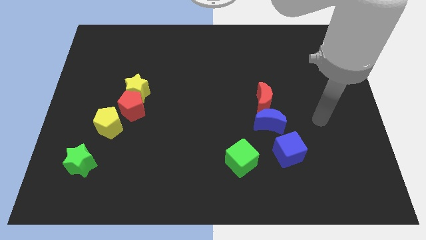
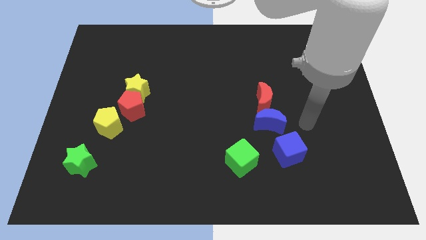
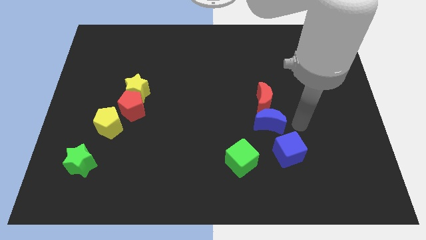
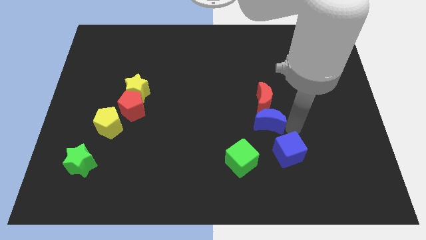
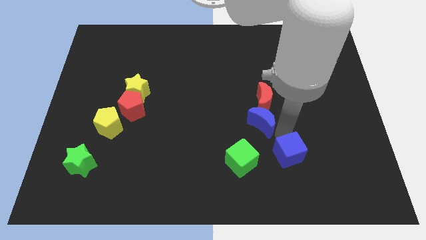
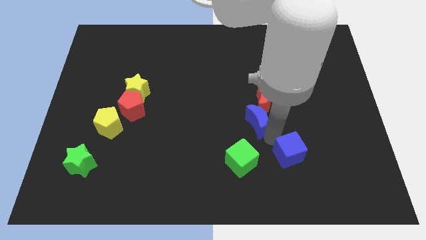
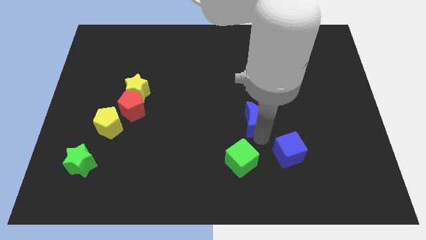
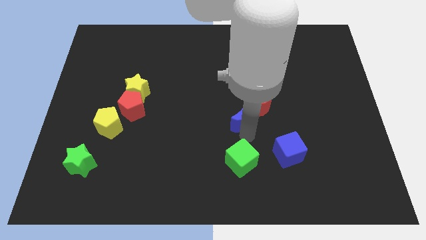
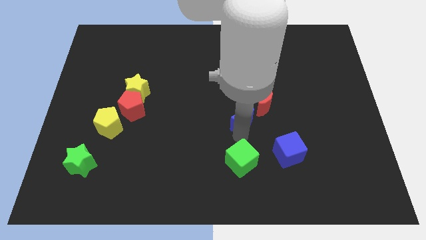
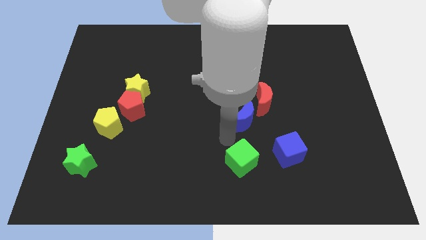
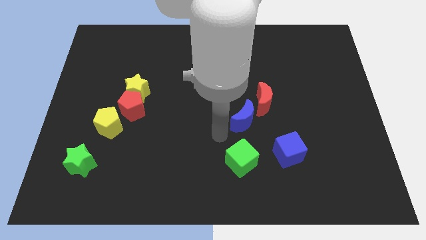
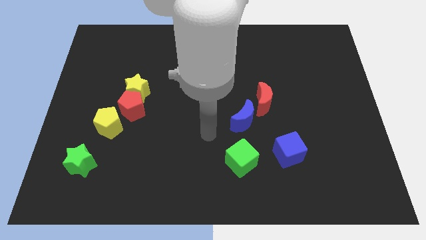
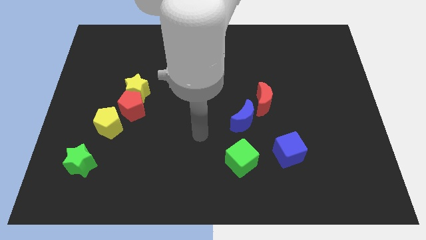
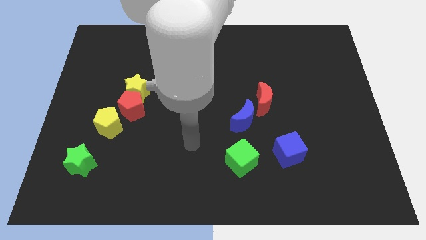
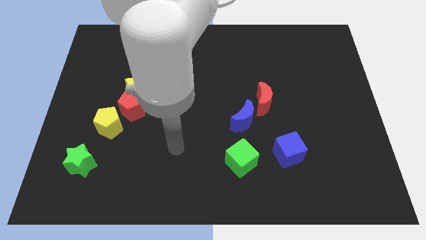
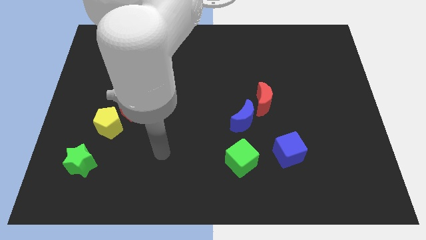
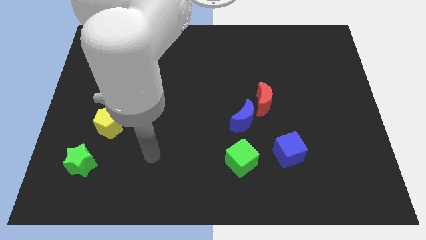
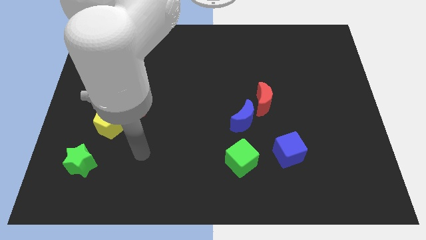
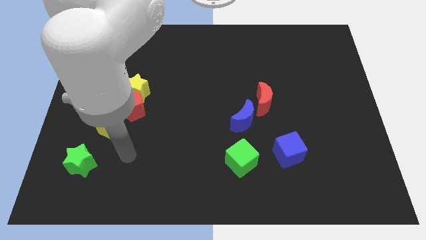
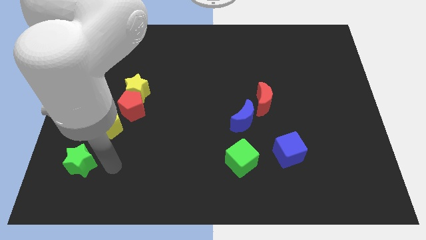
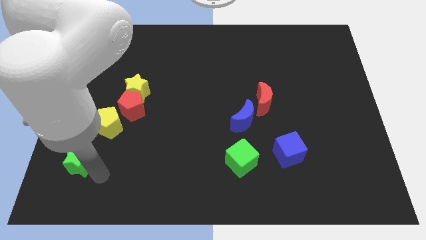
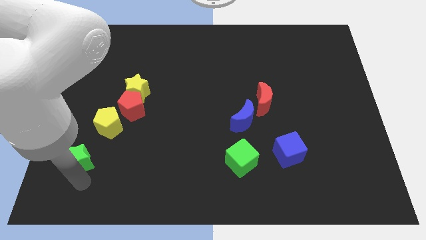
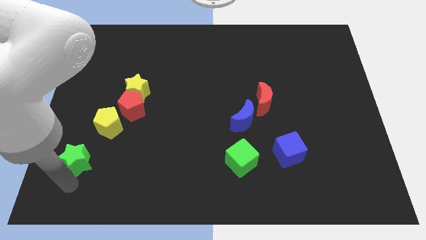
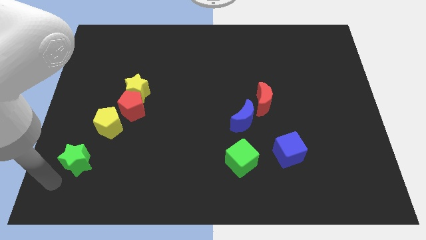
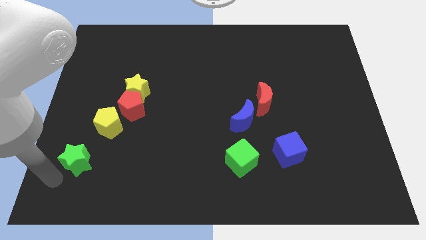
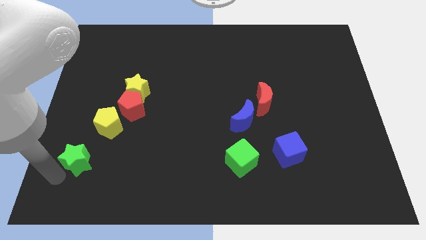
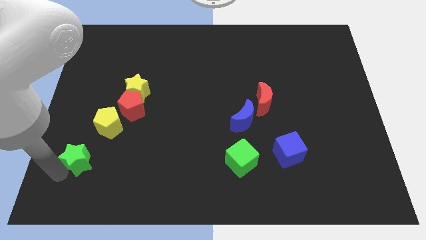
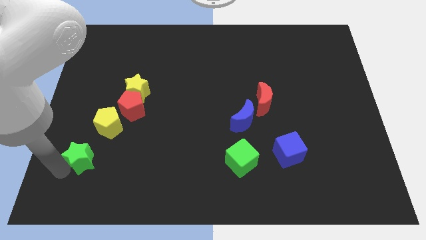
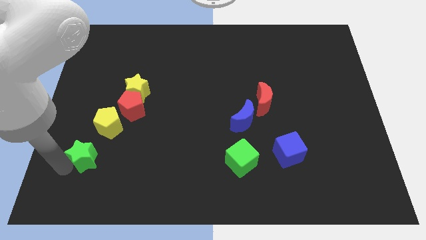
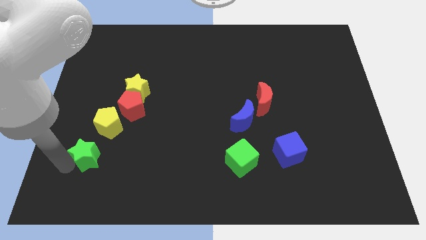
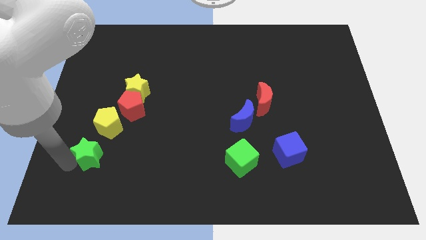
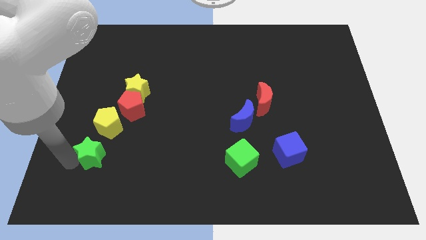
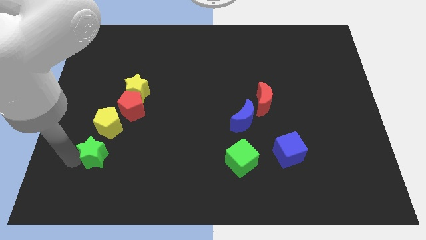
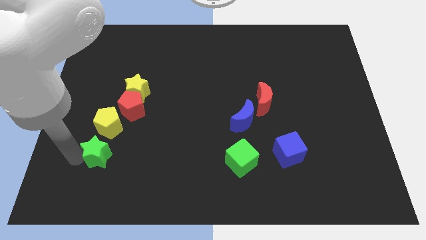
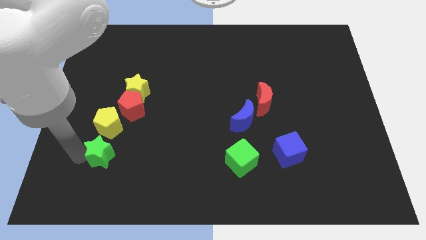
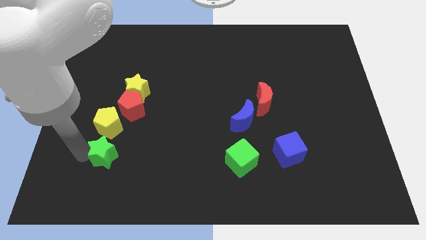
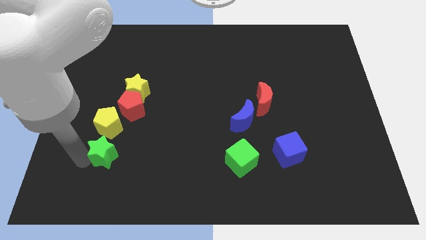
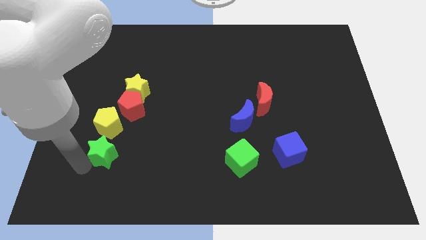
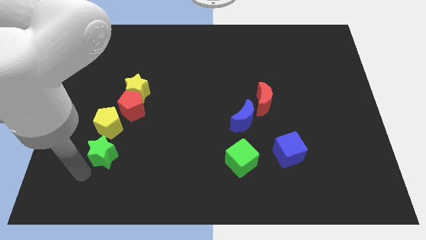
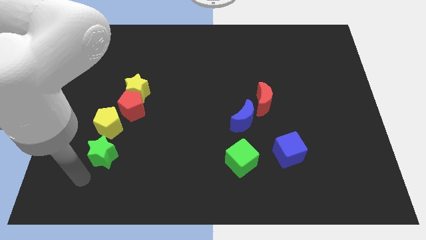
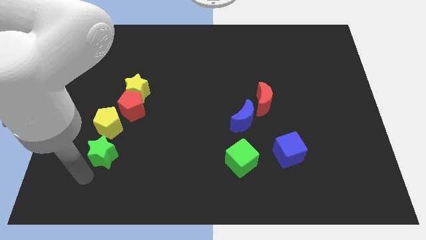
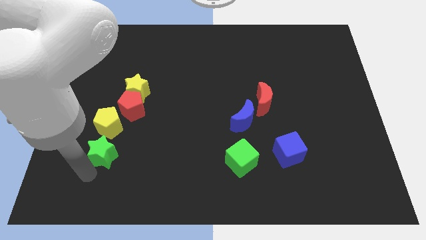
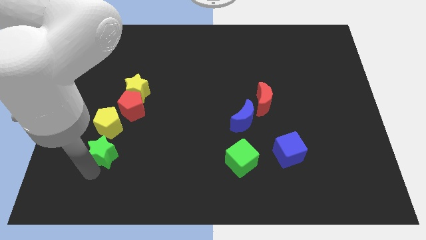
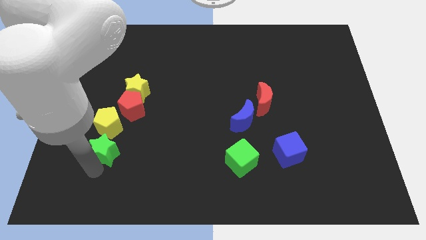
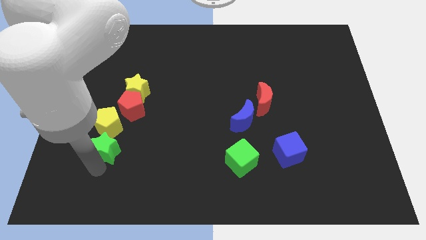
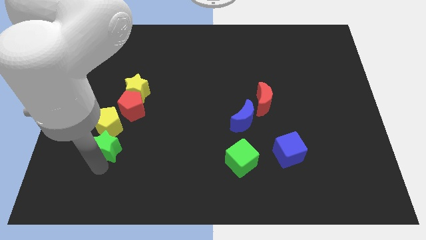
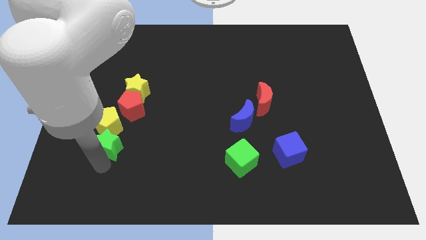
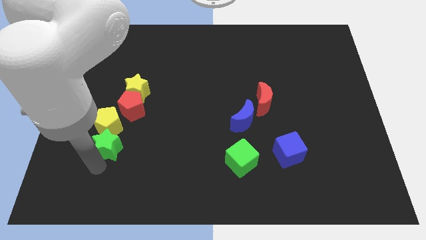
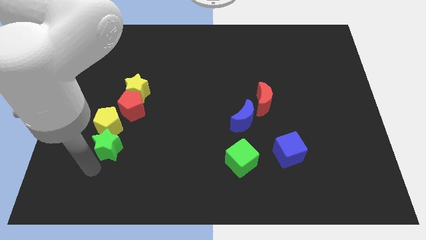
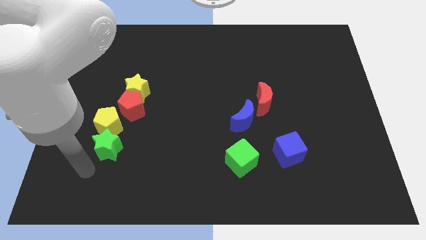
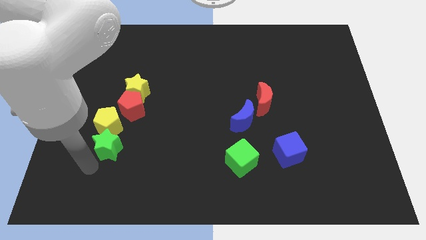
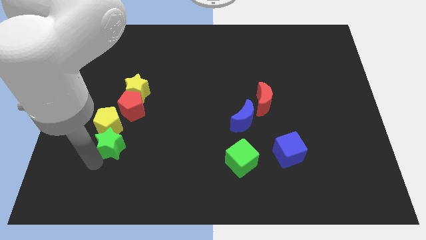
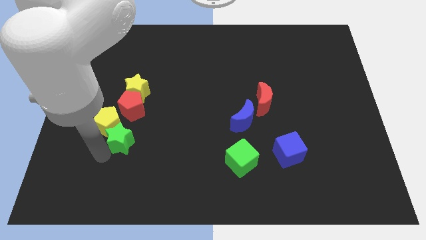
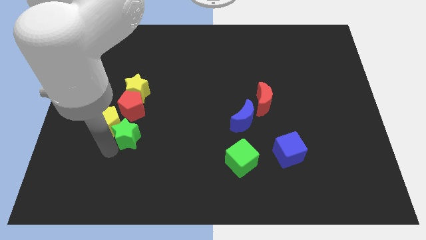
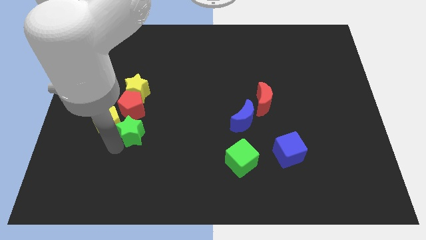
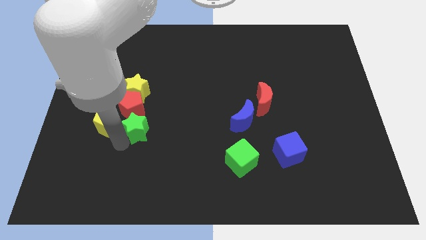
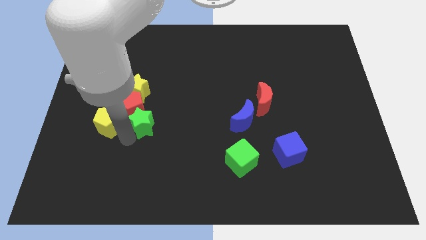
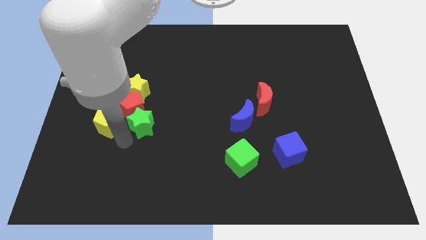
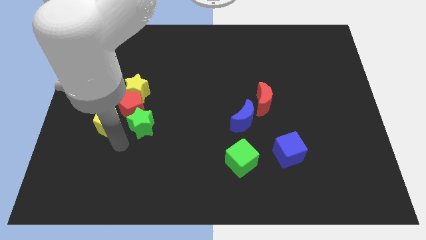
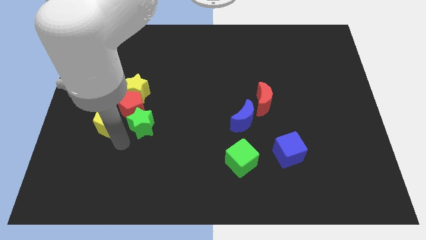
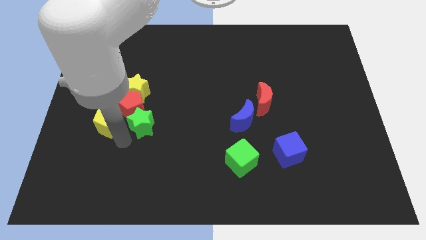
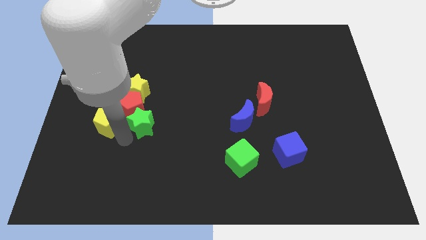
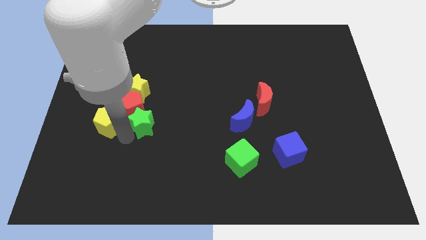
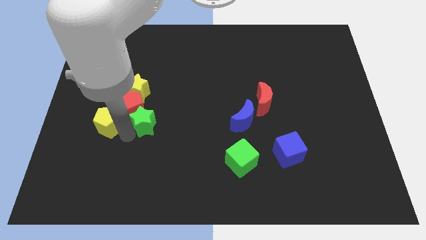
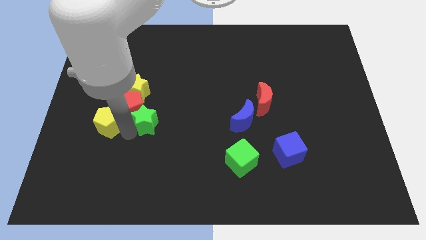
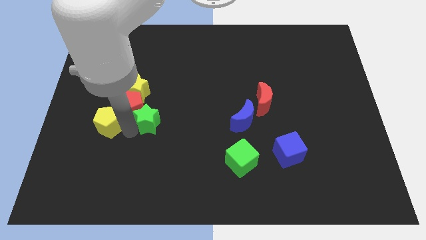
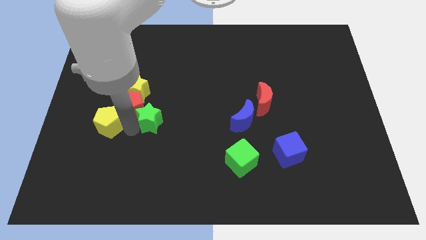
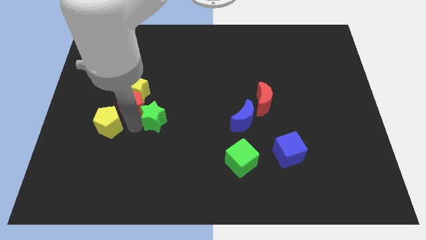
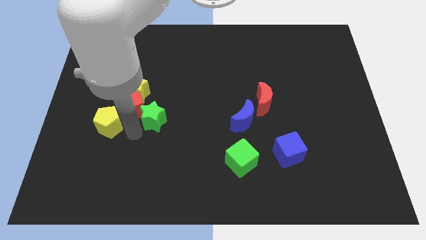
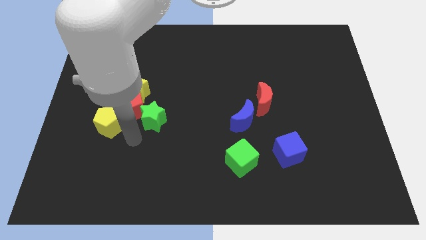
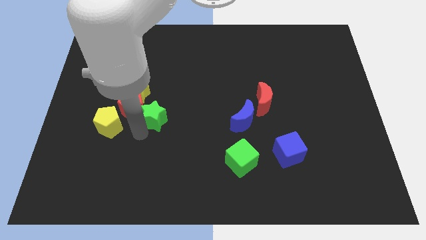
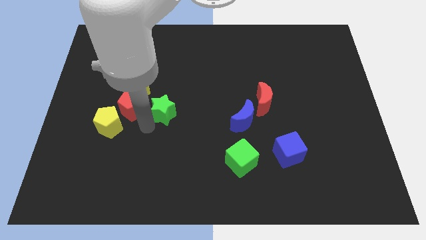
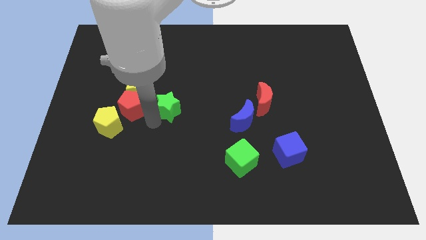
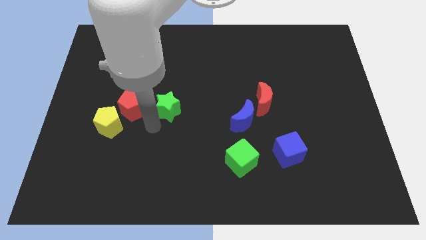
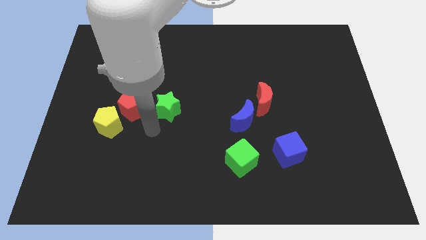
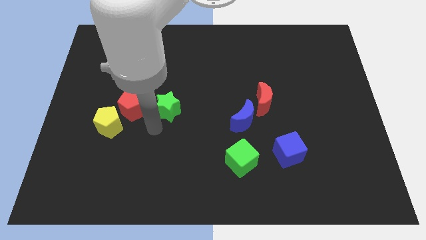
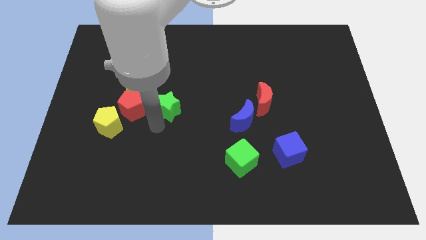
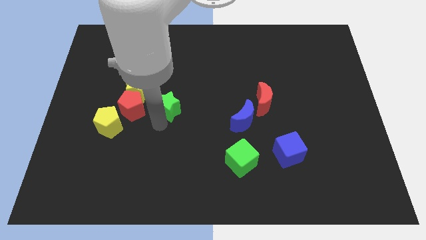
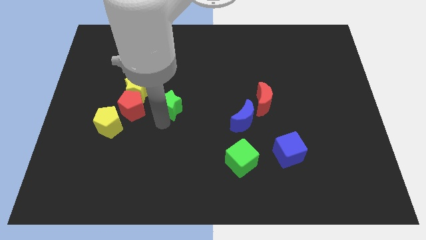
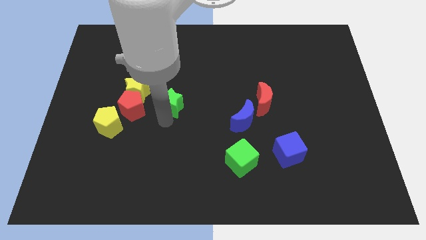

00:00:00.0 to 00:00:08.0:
slide the green star just right of the yellow star
